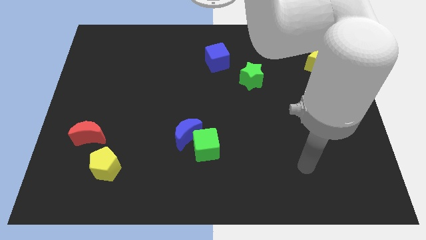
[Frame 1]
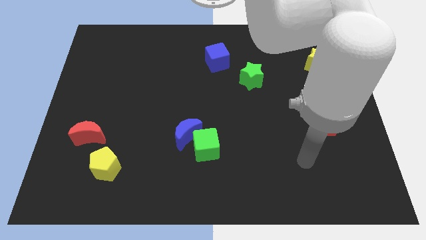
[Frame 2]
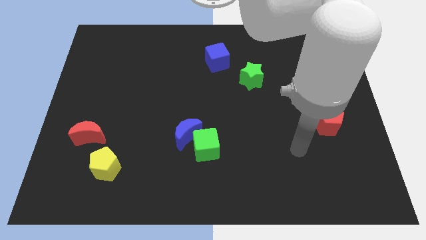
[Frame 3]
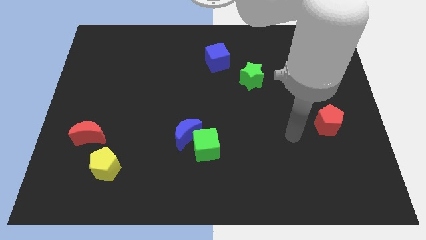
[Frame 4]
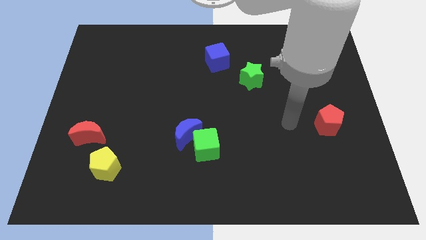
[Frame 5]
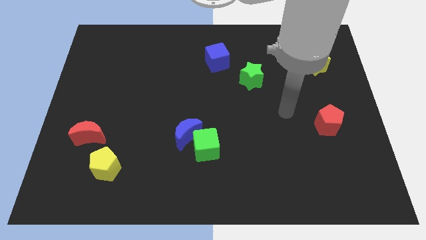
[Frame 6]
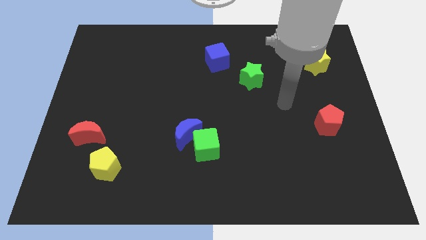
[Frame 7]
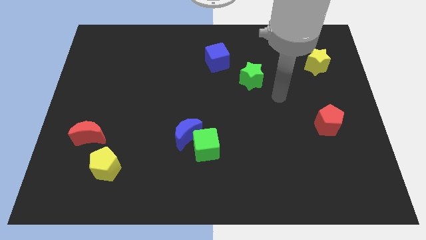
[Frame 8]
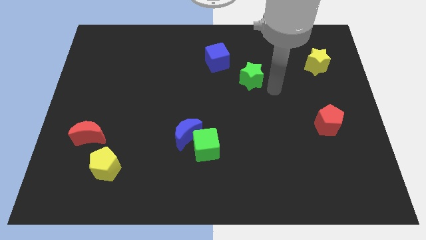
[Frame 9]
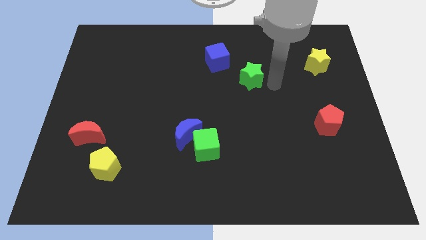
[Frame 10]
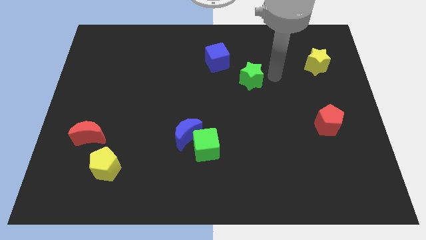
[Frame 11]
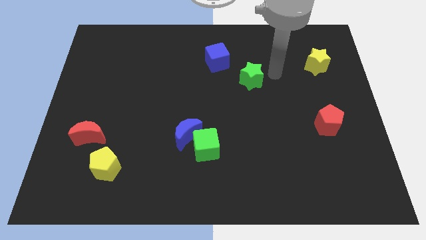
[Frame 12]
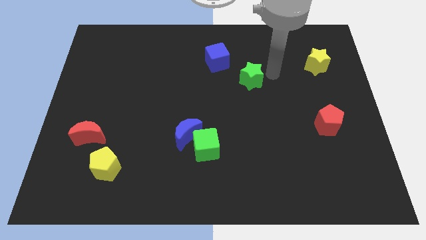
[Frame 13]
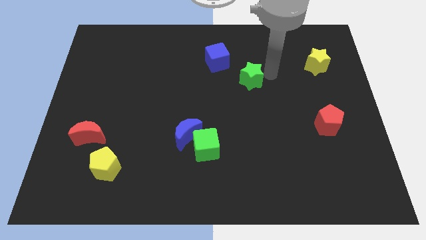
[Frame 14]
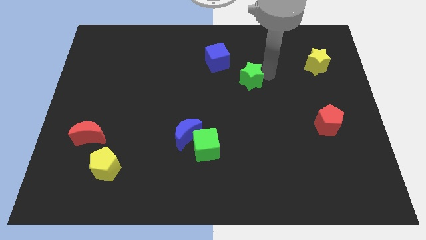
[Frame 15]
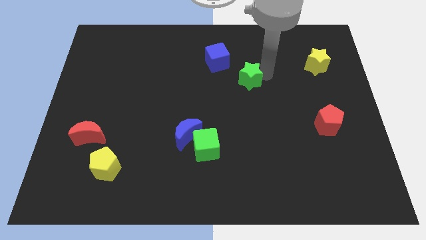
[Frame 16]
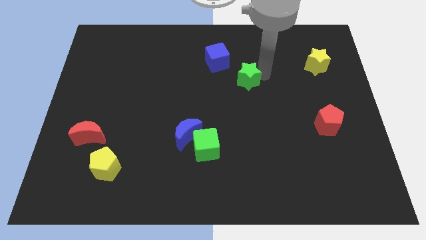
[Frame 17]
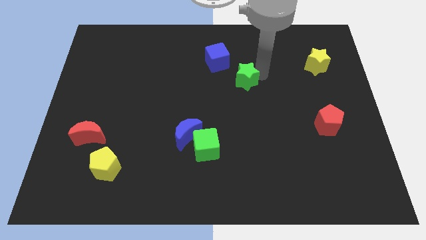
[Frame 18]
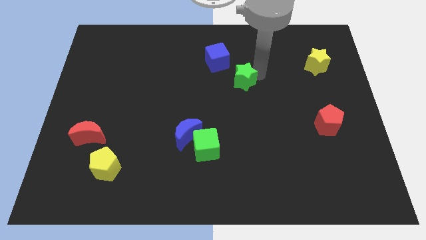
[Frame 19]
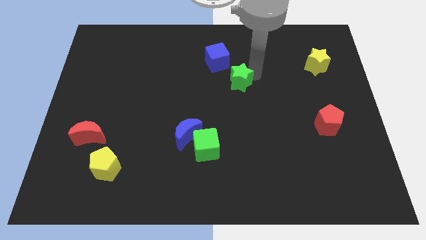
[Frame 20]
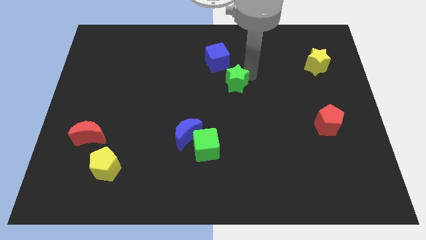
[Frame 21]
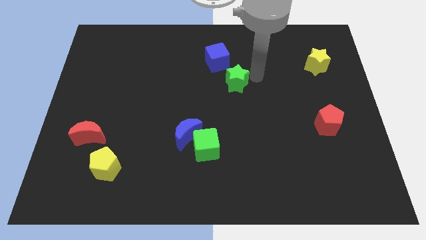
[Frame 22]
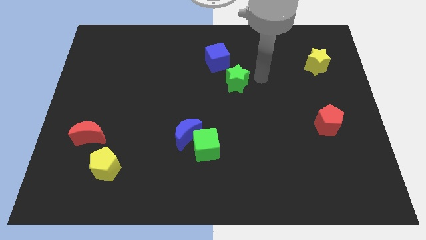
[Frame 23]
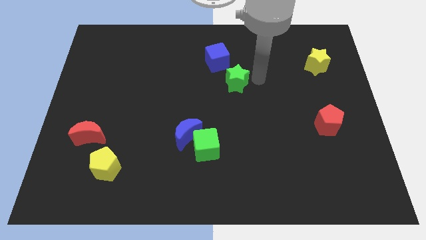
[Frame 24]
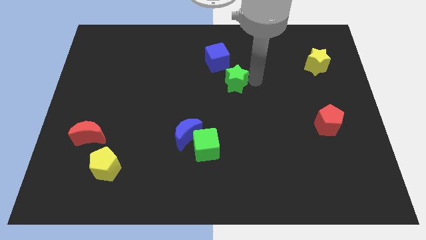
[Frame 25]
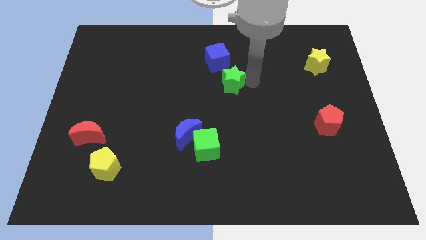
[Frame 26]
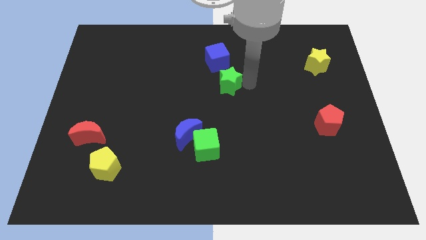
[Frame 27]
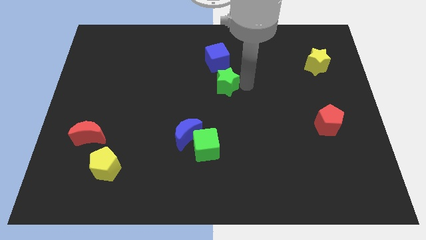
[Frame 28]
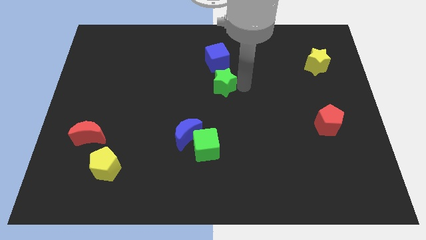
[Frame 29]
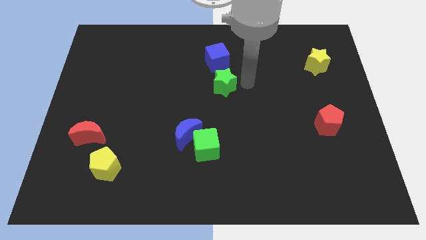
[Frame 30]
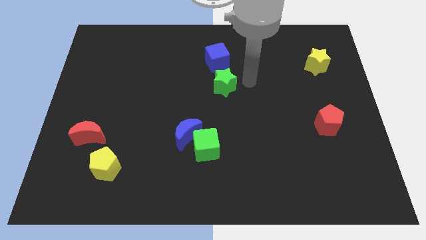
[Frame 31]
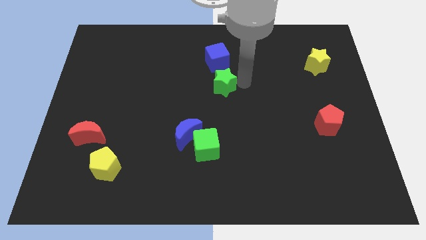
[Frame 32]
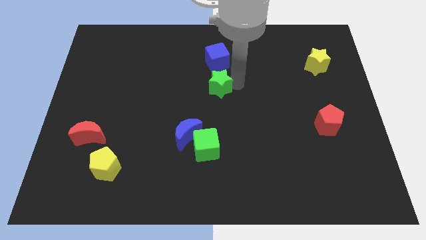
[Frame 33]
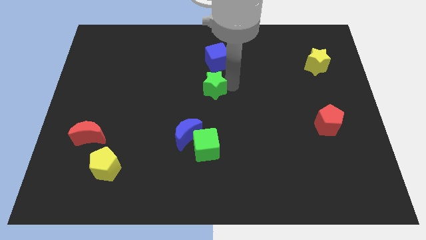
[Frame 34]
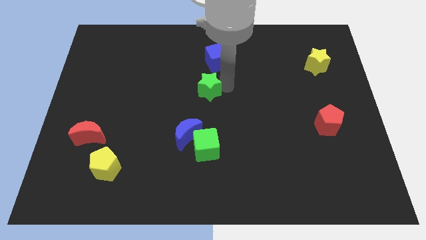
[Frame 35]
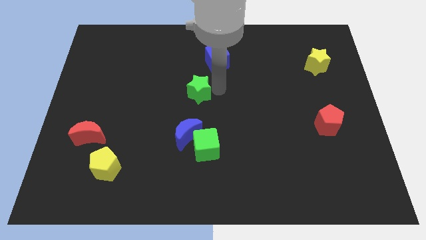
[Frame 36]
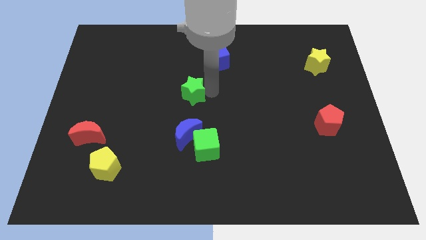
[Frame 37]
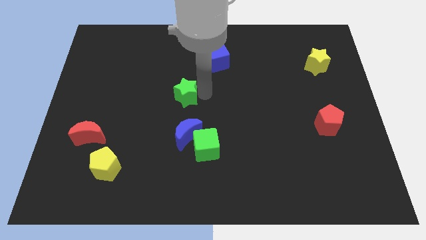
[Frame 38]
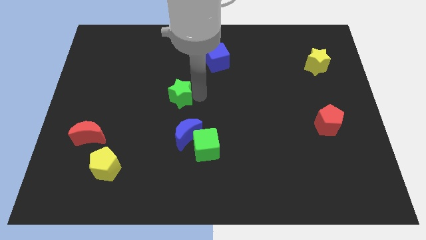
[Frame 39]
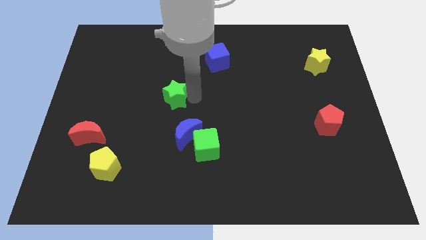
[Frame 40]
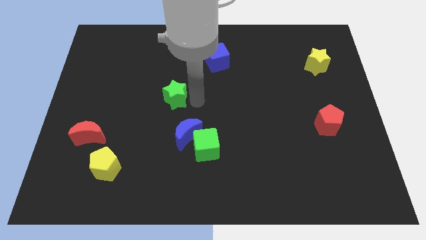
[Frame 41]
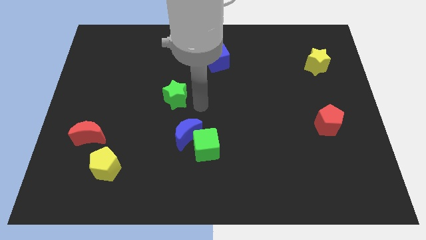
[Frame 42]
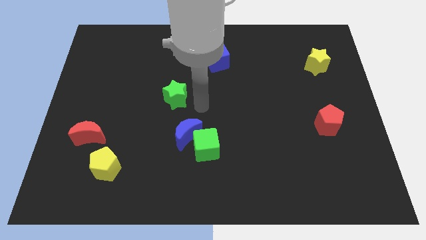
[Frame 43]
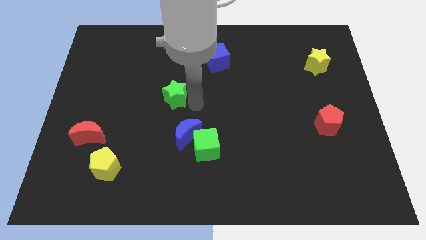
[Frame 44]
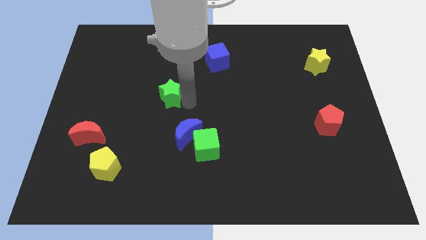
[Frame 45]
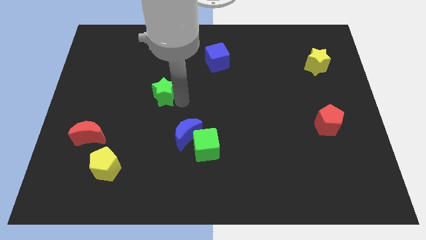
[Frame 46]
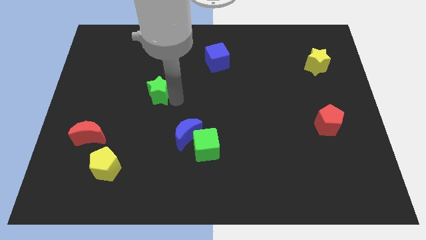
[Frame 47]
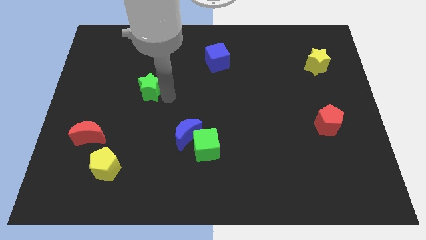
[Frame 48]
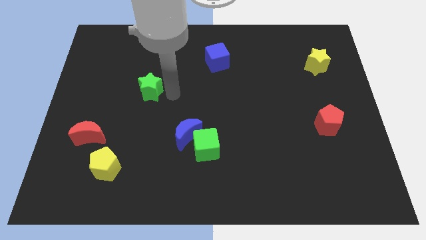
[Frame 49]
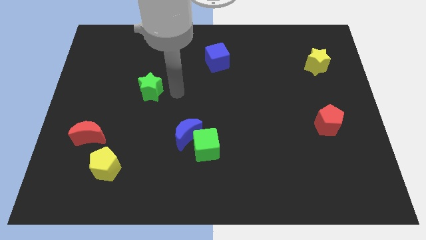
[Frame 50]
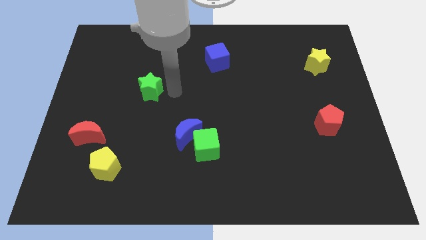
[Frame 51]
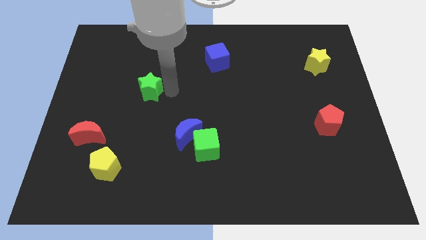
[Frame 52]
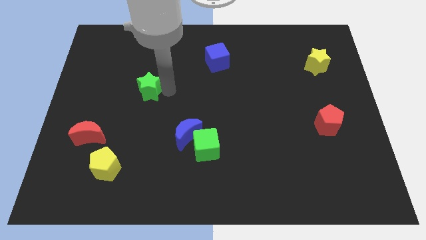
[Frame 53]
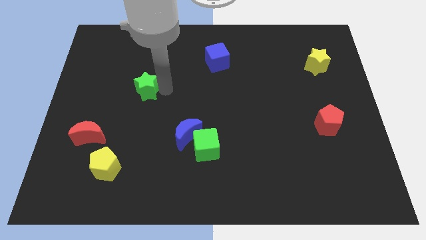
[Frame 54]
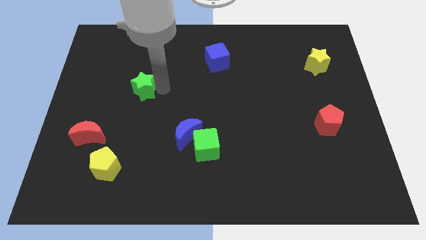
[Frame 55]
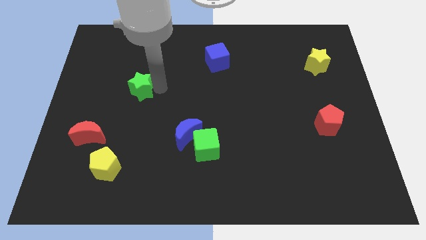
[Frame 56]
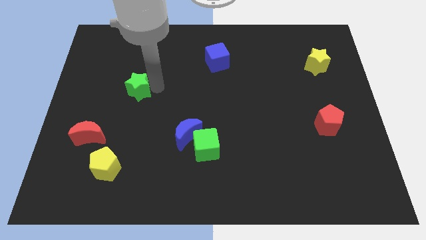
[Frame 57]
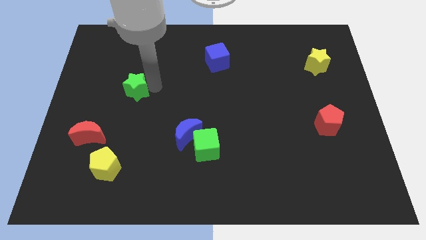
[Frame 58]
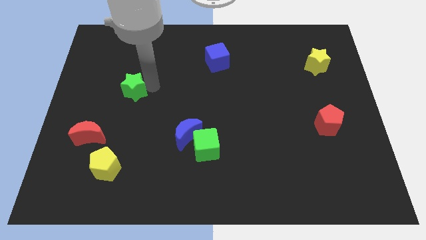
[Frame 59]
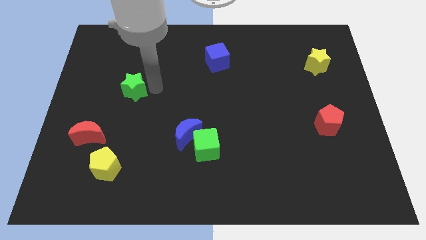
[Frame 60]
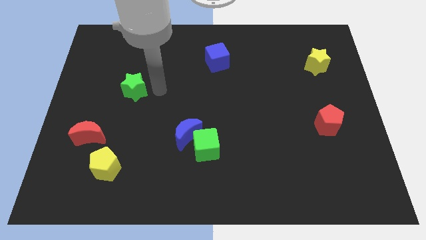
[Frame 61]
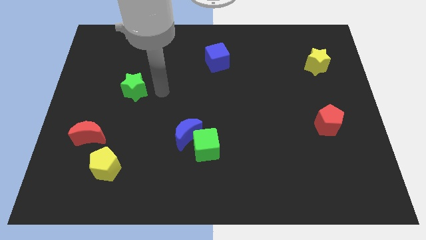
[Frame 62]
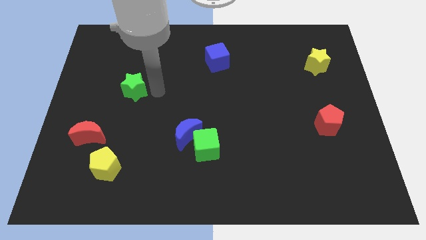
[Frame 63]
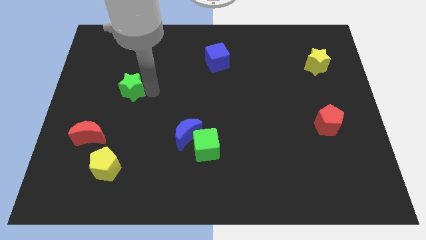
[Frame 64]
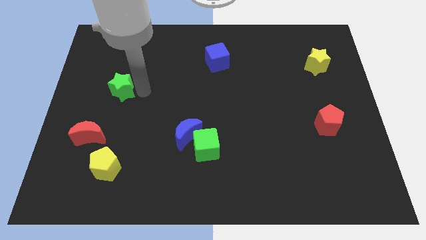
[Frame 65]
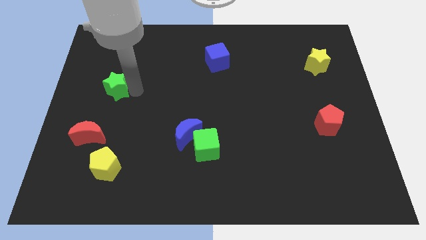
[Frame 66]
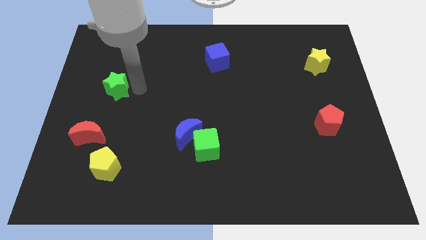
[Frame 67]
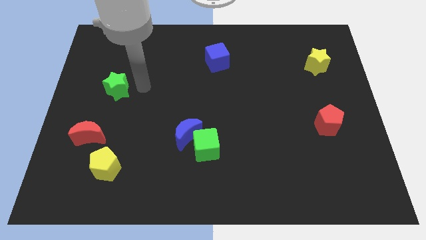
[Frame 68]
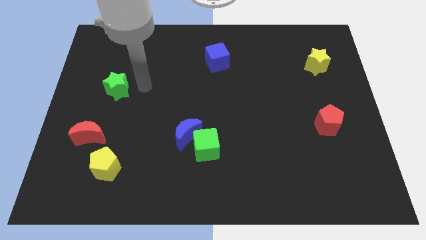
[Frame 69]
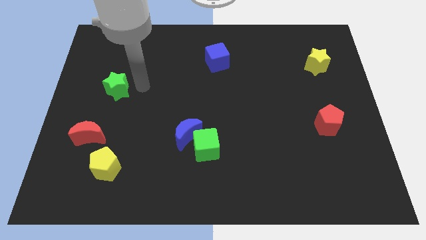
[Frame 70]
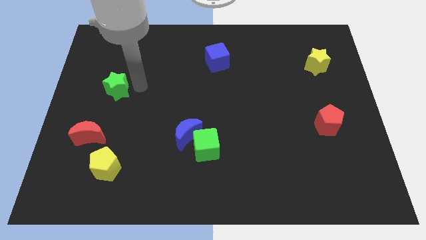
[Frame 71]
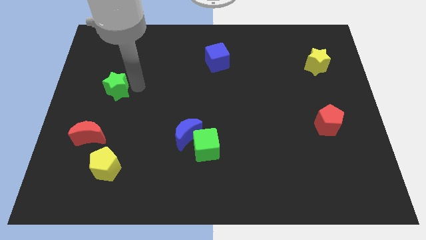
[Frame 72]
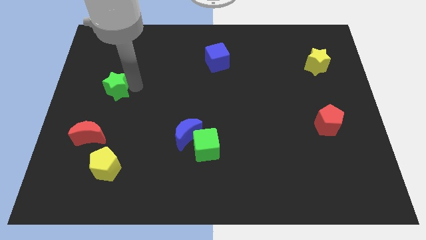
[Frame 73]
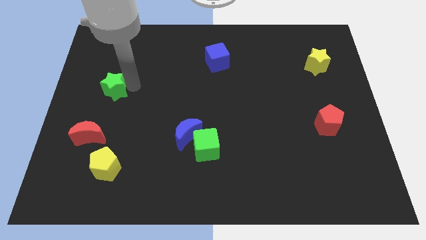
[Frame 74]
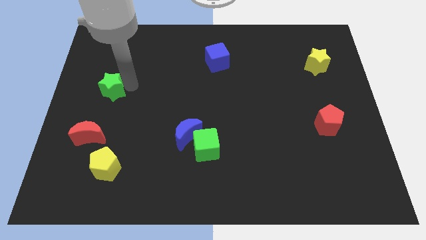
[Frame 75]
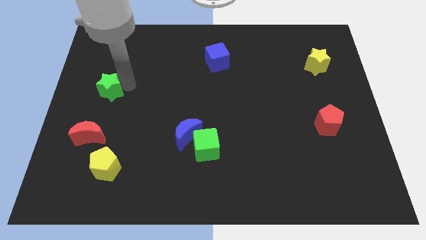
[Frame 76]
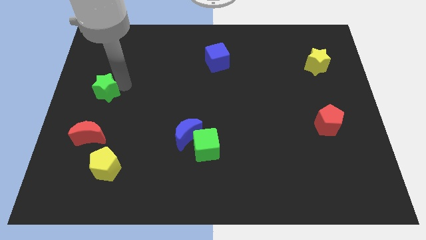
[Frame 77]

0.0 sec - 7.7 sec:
push the green star to the left side of the board

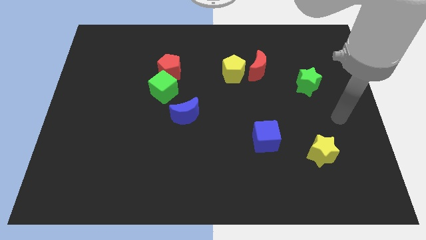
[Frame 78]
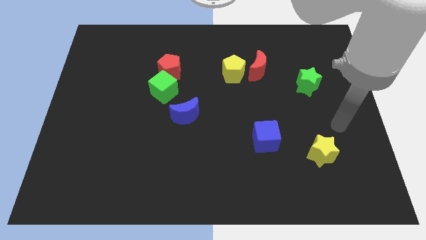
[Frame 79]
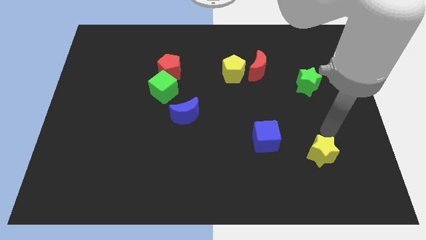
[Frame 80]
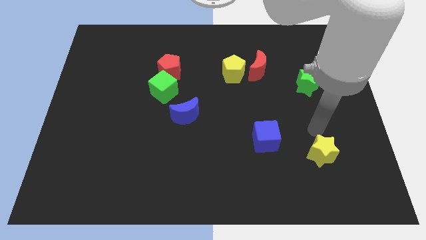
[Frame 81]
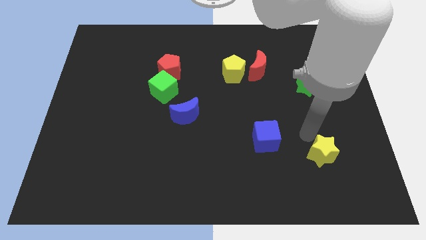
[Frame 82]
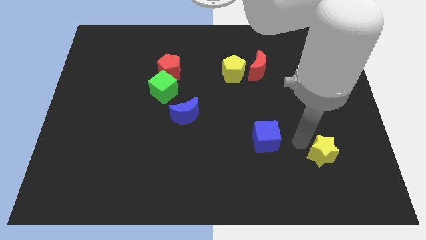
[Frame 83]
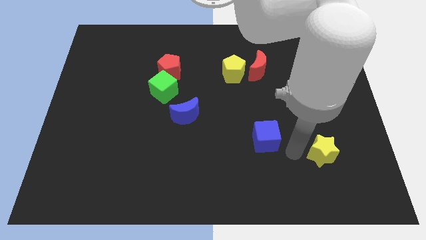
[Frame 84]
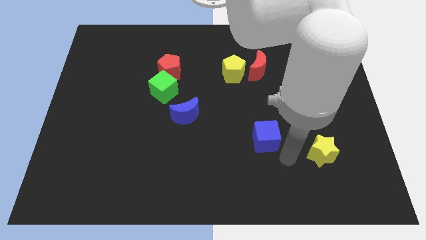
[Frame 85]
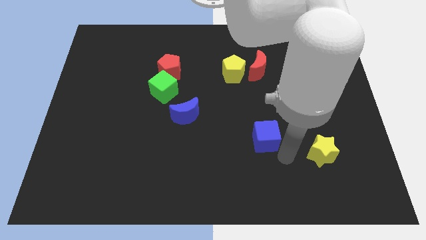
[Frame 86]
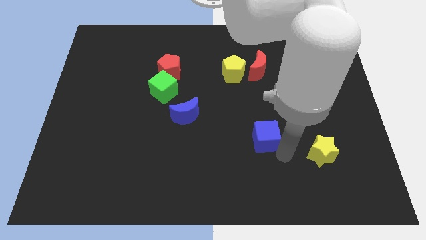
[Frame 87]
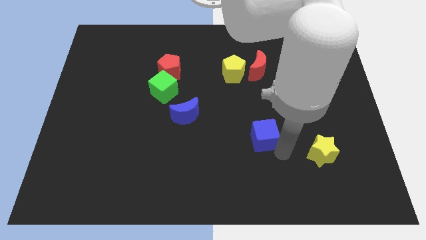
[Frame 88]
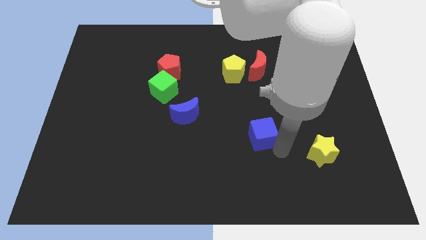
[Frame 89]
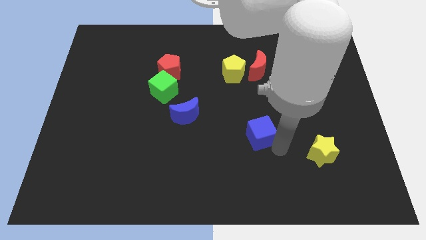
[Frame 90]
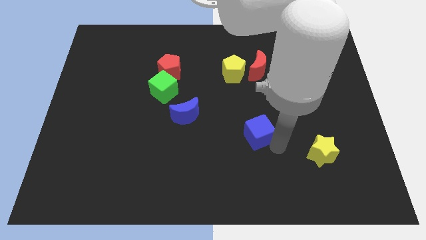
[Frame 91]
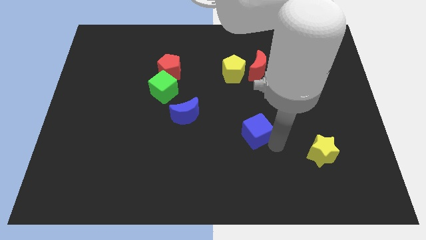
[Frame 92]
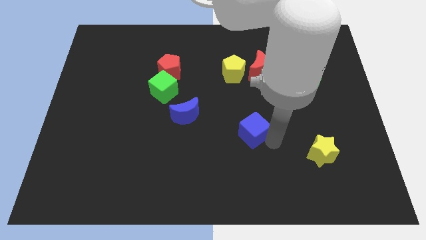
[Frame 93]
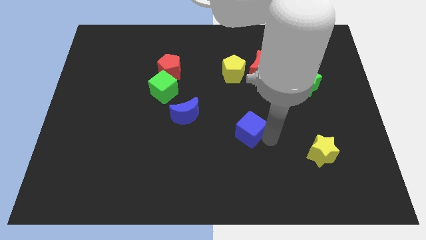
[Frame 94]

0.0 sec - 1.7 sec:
slide the blue cube to the center of the board
